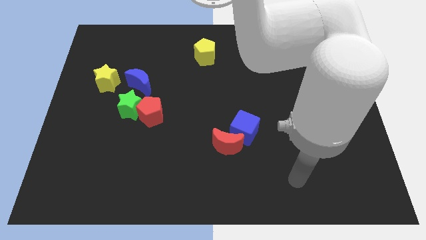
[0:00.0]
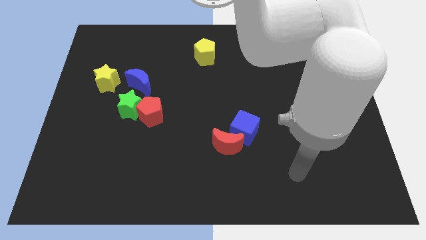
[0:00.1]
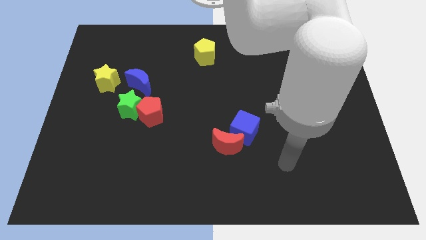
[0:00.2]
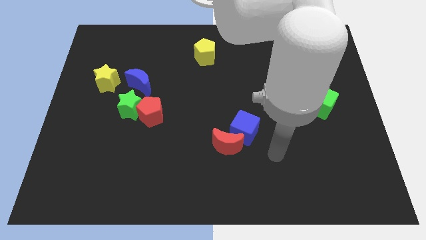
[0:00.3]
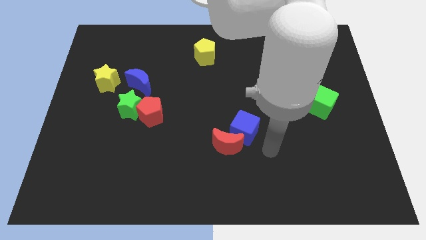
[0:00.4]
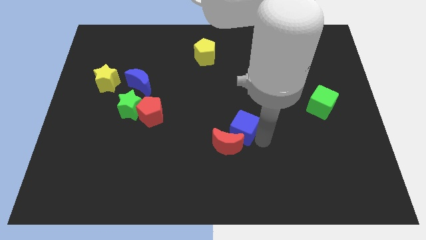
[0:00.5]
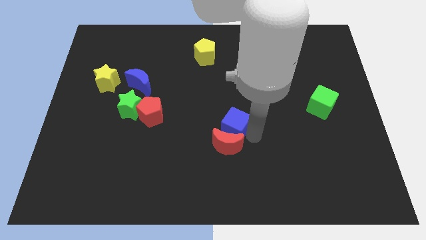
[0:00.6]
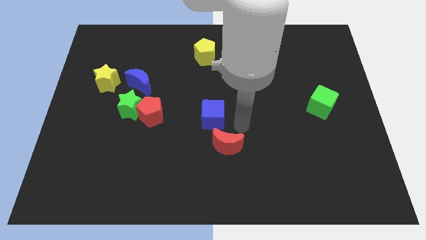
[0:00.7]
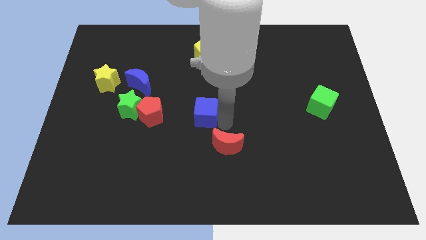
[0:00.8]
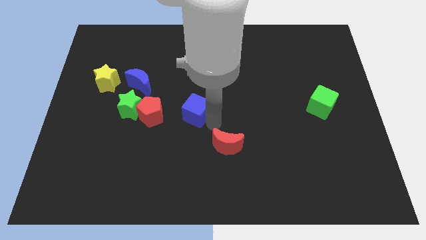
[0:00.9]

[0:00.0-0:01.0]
separate the red moon from the blue cube

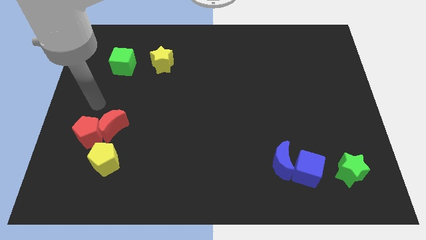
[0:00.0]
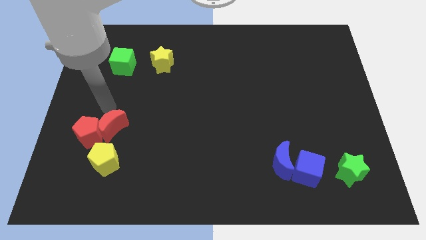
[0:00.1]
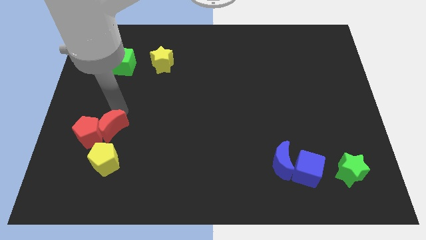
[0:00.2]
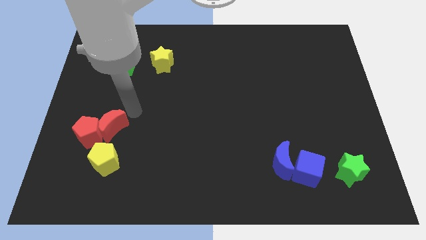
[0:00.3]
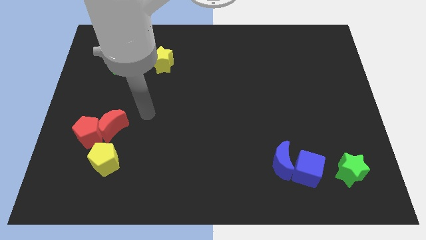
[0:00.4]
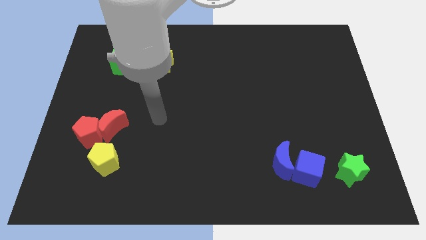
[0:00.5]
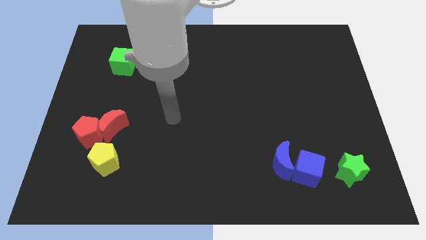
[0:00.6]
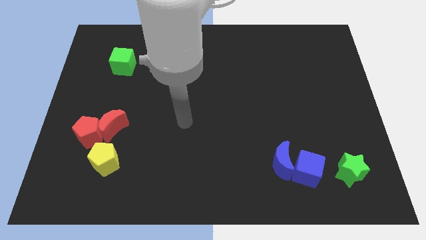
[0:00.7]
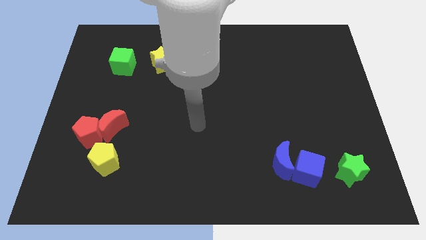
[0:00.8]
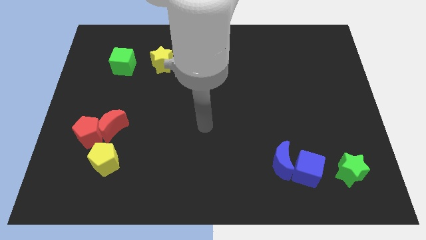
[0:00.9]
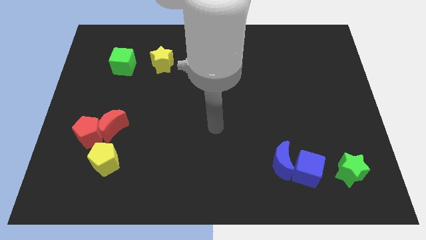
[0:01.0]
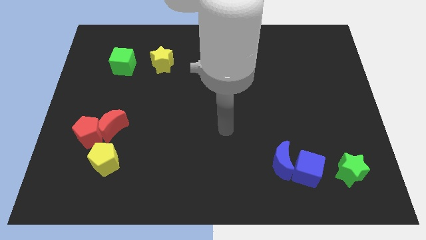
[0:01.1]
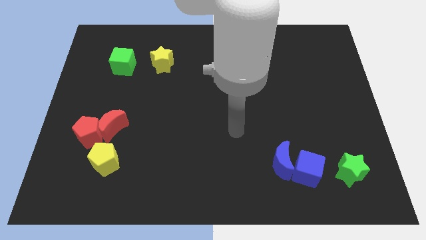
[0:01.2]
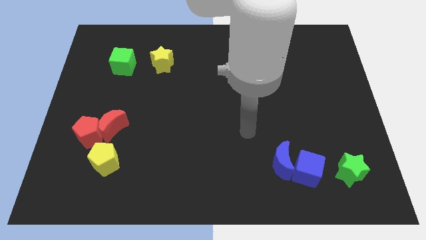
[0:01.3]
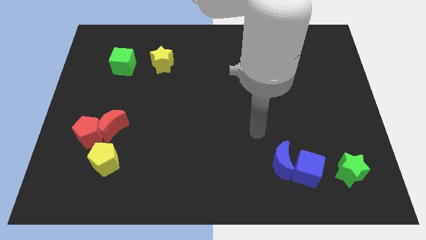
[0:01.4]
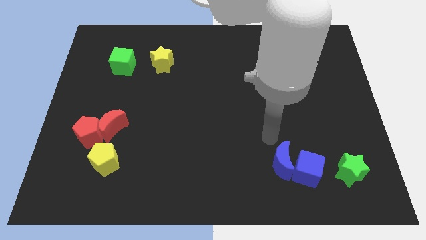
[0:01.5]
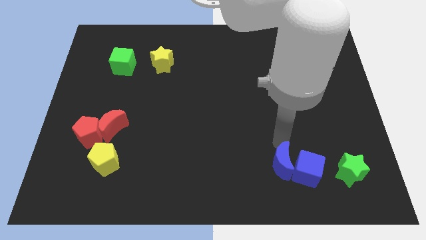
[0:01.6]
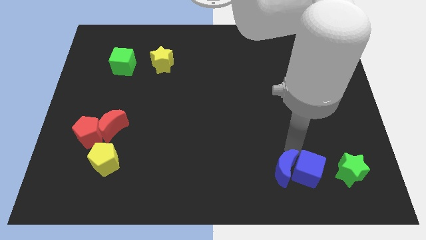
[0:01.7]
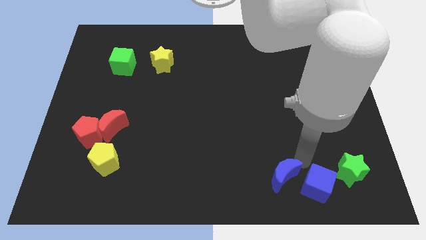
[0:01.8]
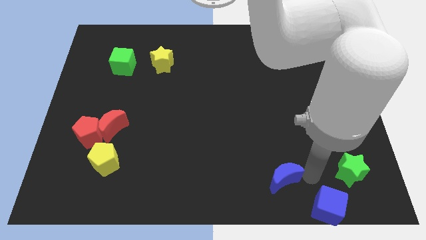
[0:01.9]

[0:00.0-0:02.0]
move the blue moon away from the blue cube

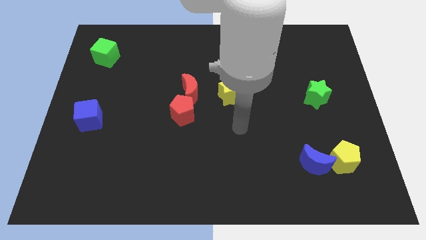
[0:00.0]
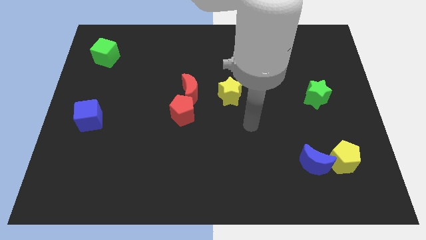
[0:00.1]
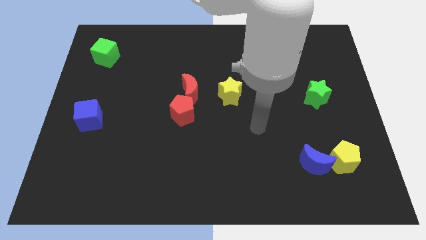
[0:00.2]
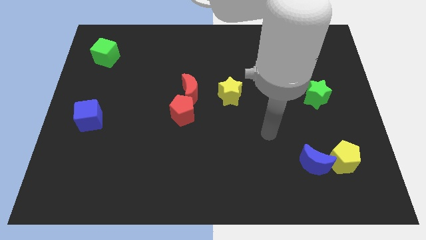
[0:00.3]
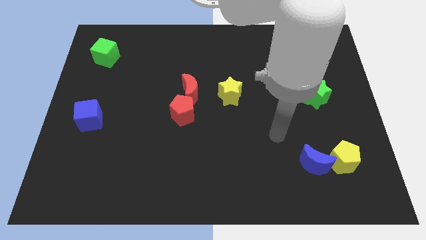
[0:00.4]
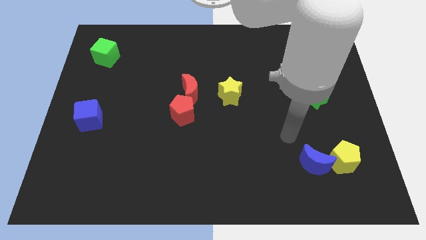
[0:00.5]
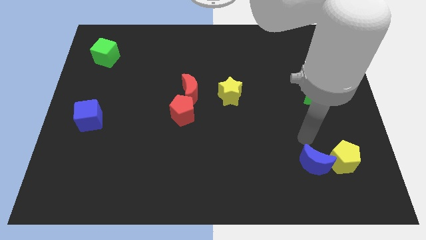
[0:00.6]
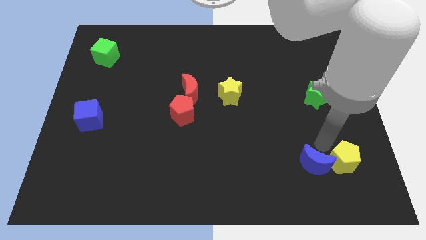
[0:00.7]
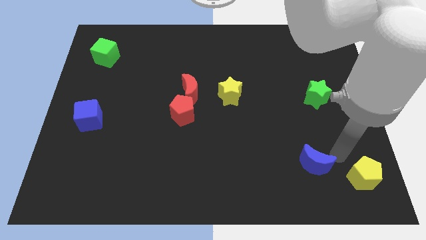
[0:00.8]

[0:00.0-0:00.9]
pull the blue moon apart from the yellow pentagon

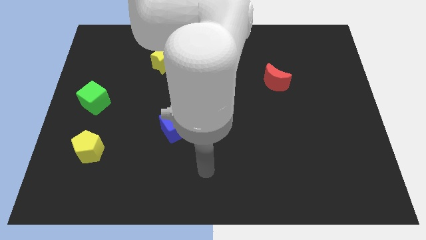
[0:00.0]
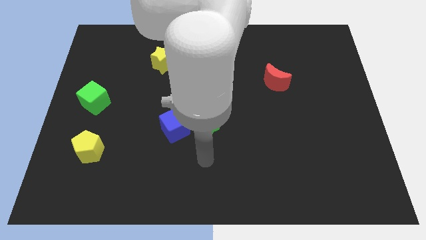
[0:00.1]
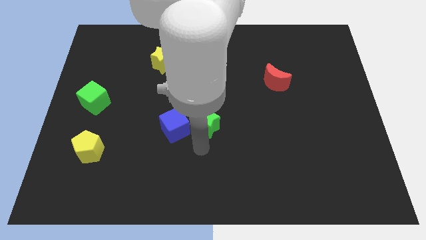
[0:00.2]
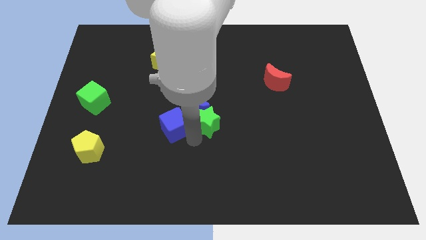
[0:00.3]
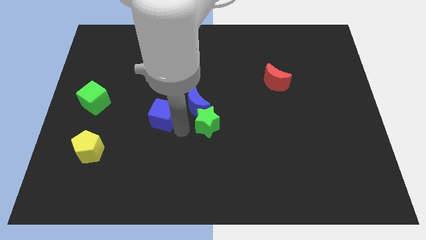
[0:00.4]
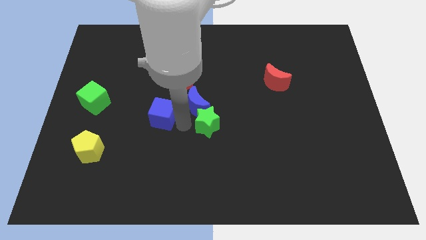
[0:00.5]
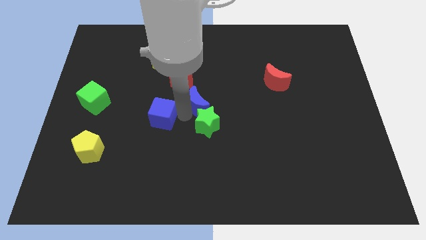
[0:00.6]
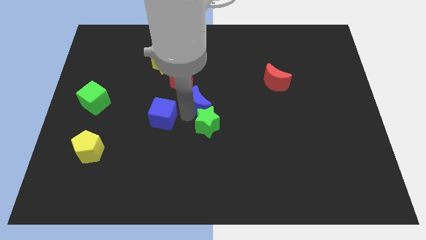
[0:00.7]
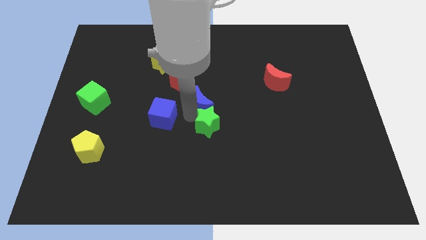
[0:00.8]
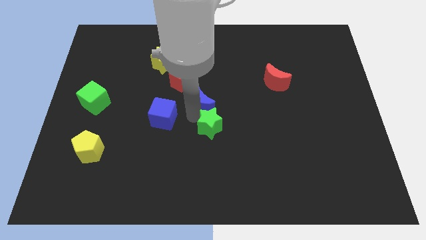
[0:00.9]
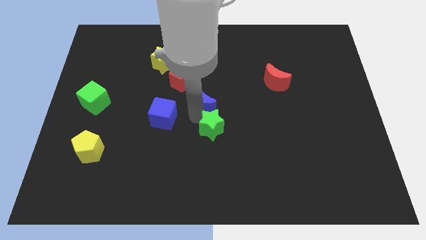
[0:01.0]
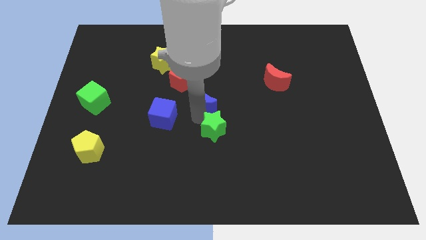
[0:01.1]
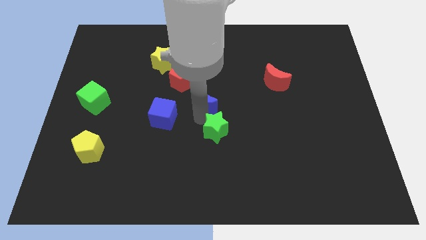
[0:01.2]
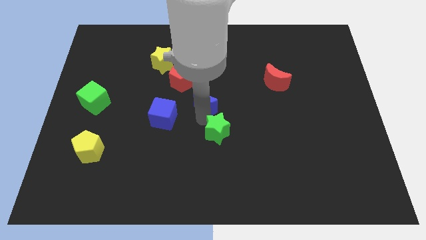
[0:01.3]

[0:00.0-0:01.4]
separate the green star from the blue moon and blue cube

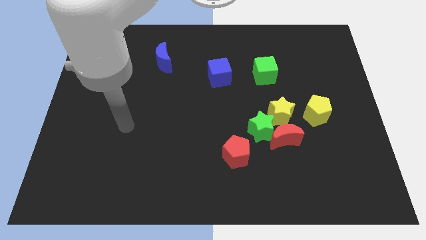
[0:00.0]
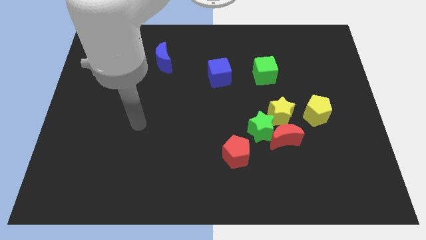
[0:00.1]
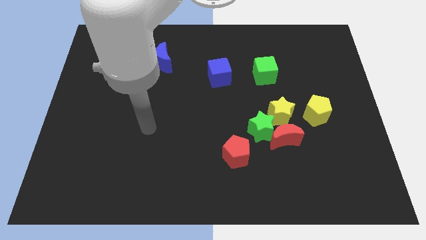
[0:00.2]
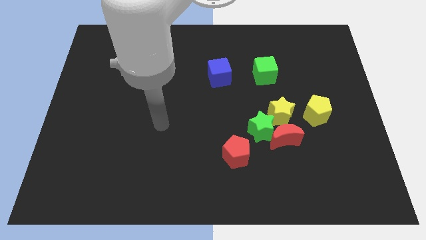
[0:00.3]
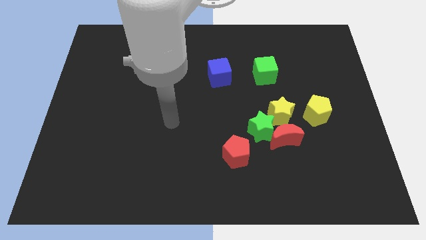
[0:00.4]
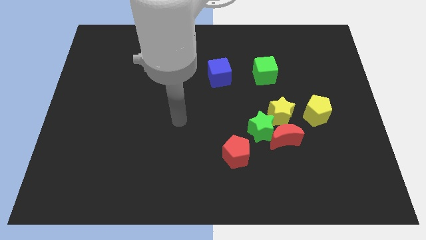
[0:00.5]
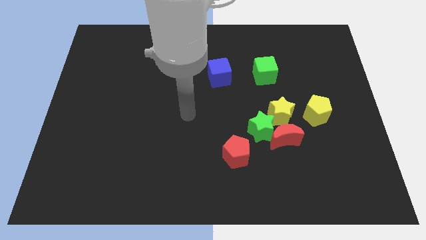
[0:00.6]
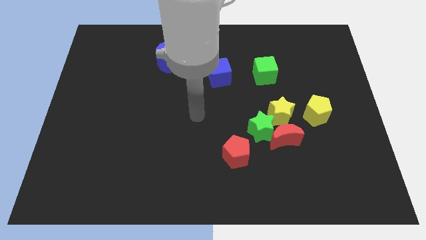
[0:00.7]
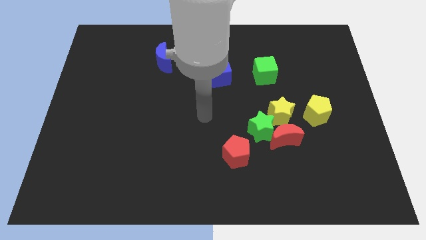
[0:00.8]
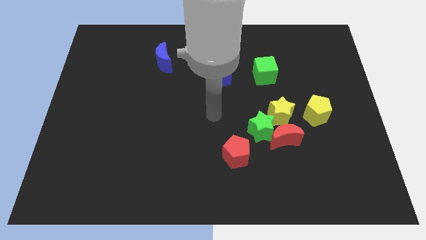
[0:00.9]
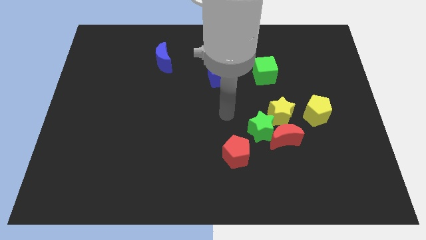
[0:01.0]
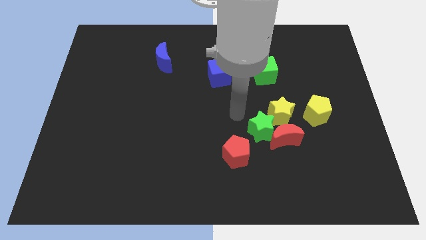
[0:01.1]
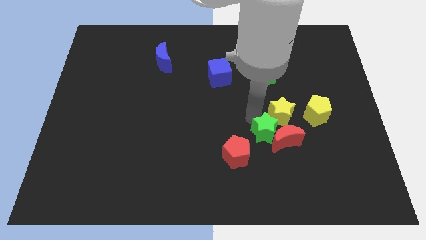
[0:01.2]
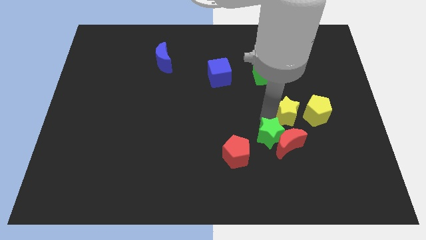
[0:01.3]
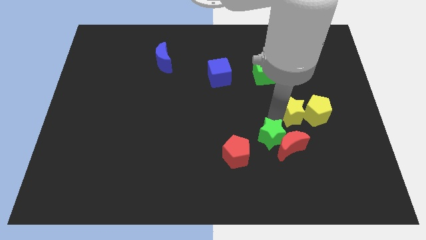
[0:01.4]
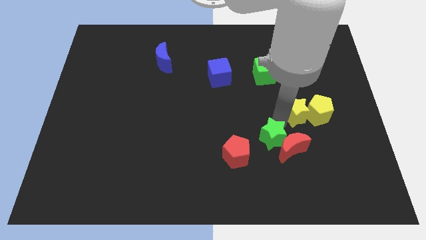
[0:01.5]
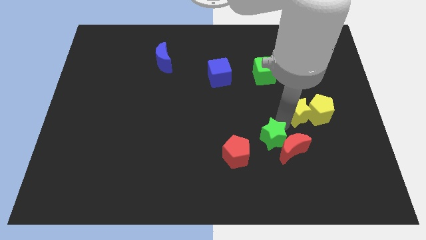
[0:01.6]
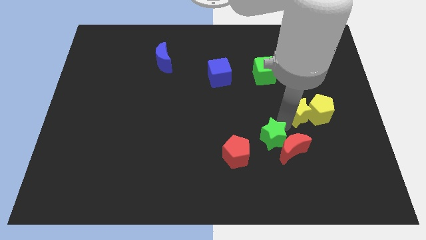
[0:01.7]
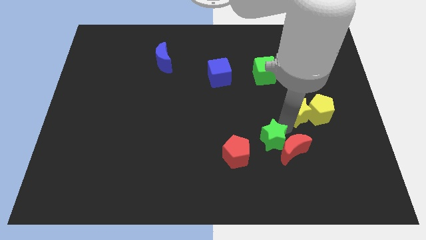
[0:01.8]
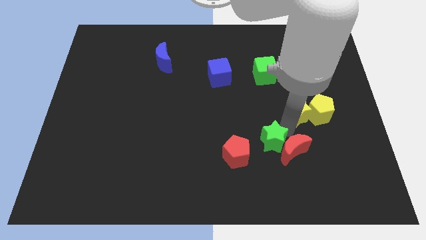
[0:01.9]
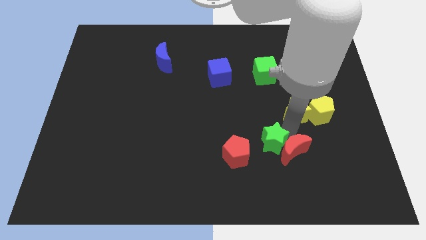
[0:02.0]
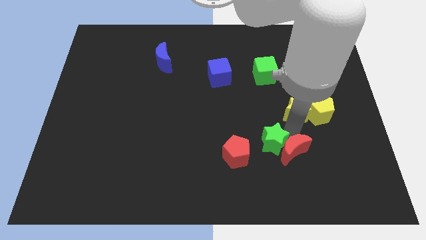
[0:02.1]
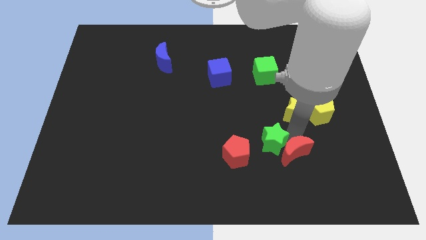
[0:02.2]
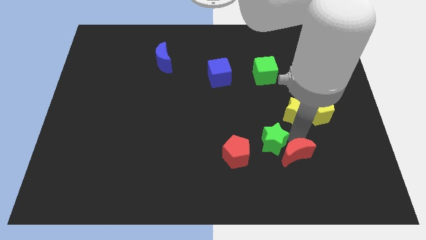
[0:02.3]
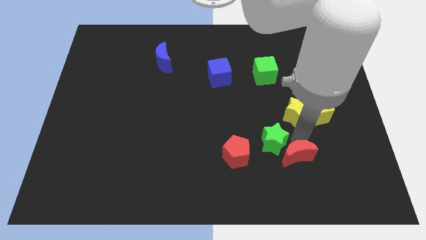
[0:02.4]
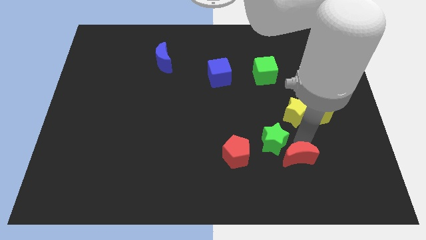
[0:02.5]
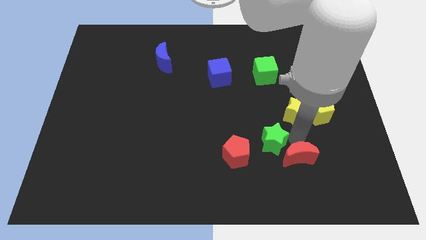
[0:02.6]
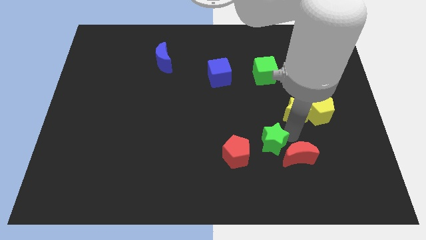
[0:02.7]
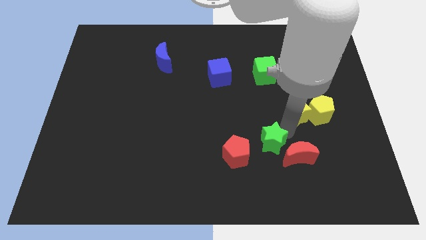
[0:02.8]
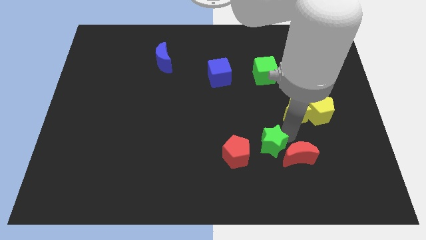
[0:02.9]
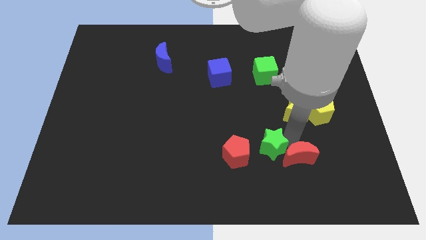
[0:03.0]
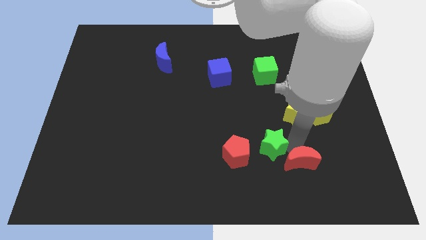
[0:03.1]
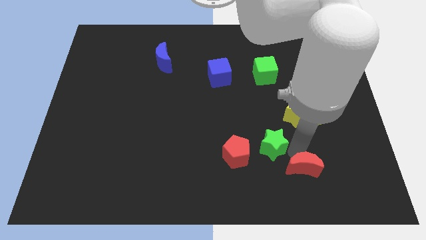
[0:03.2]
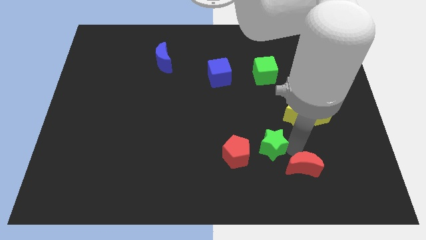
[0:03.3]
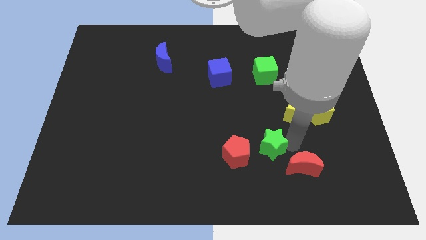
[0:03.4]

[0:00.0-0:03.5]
pull the red moon apart from the green star and yellow star

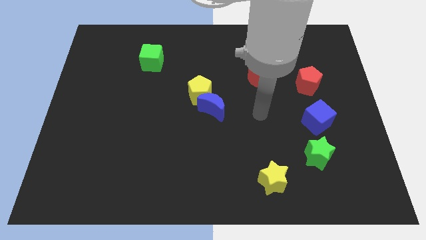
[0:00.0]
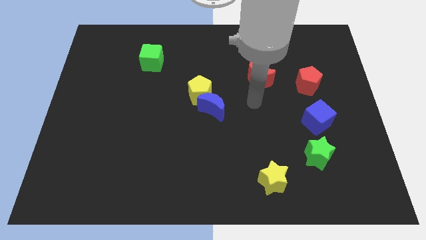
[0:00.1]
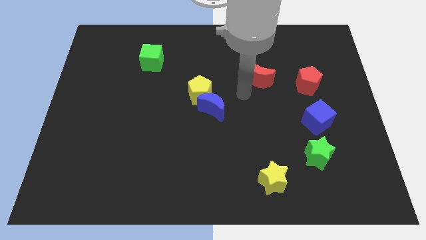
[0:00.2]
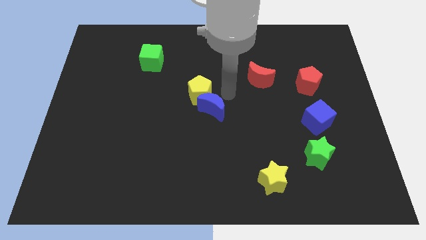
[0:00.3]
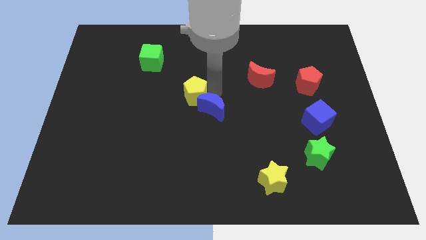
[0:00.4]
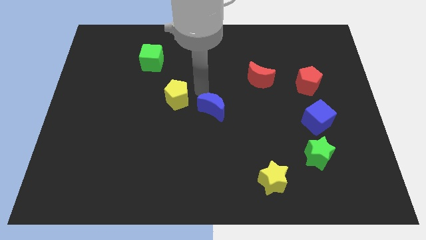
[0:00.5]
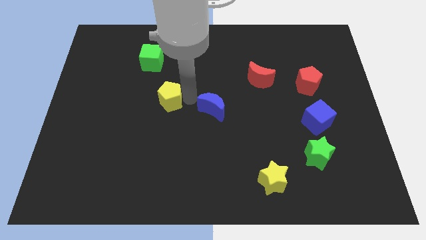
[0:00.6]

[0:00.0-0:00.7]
separate the blue moon from the yellow pentagon
